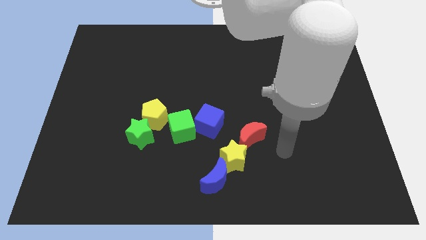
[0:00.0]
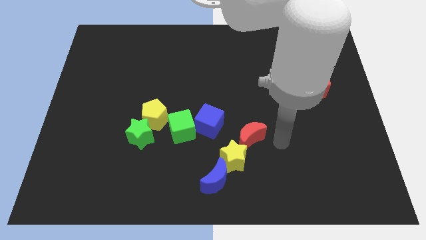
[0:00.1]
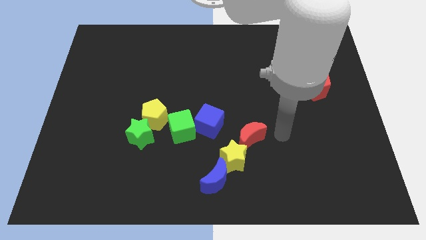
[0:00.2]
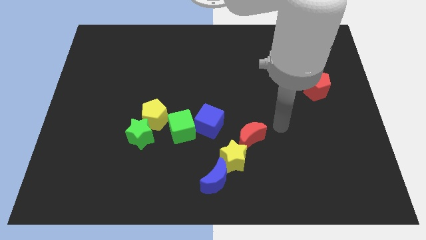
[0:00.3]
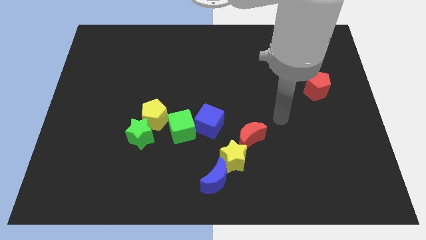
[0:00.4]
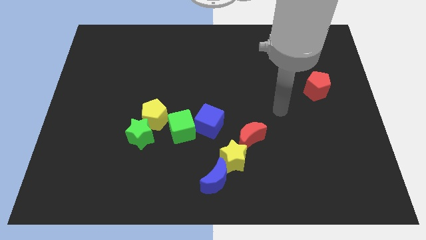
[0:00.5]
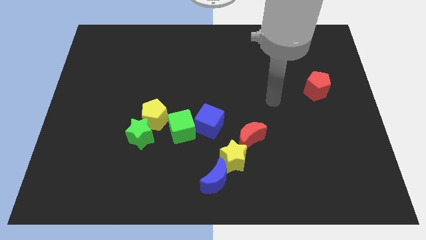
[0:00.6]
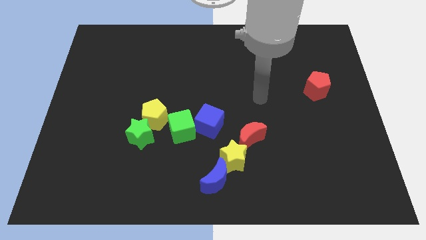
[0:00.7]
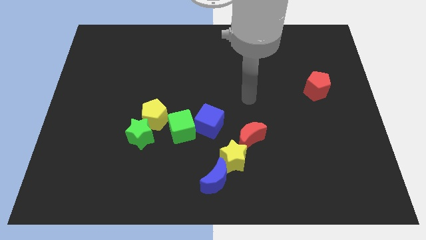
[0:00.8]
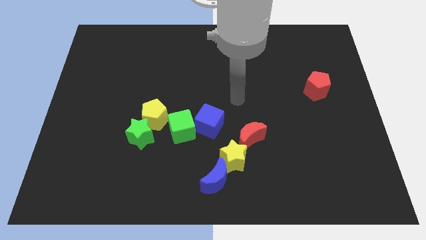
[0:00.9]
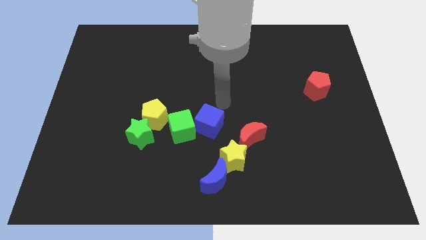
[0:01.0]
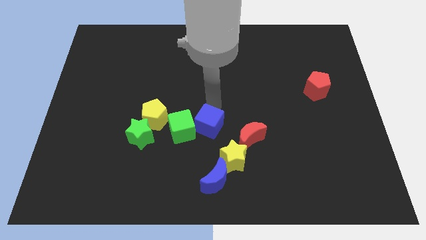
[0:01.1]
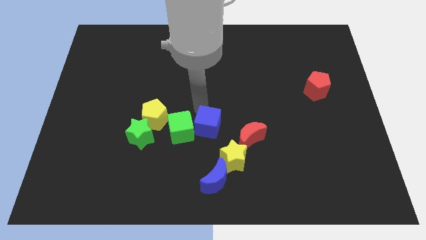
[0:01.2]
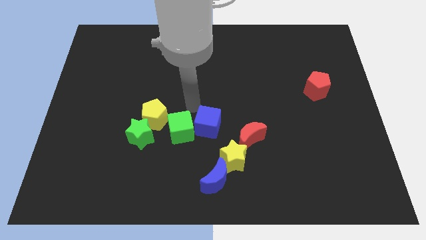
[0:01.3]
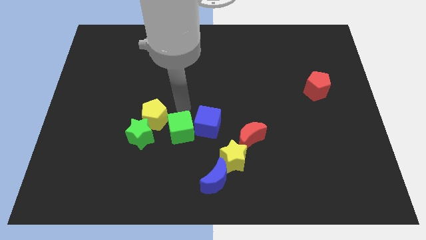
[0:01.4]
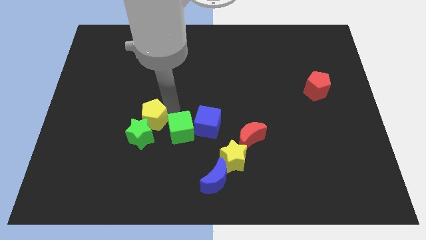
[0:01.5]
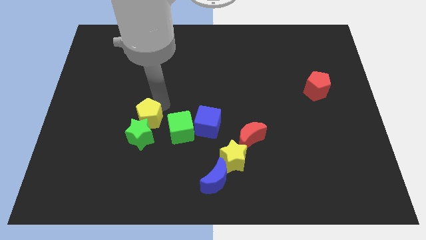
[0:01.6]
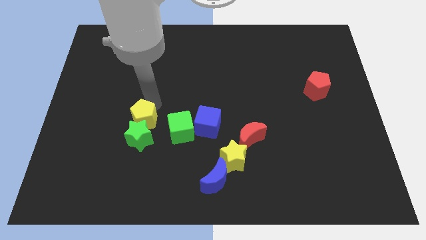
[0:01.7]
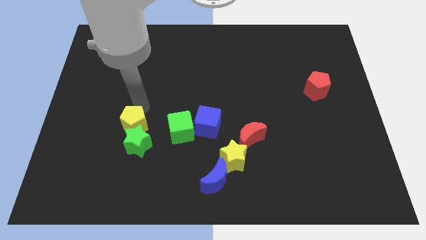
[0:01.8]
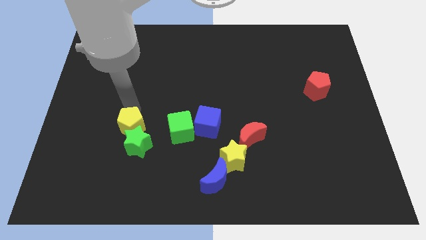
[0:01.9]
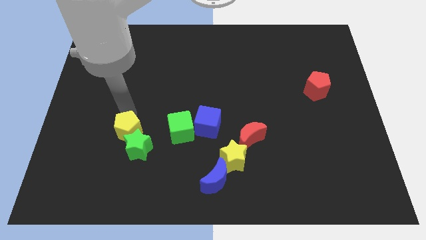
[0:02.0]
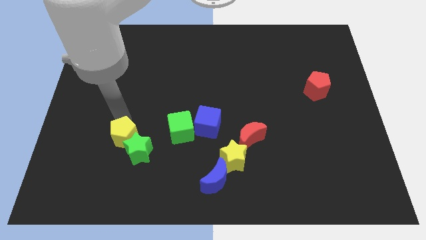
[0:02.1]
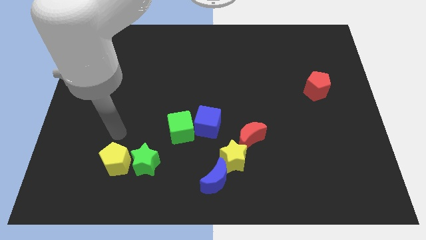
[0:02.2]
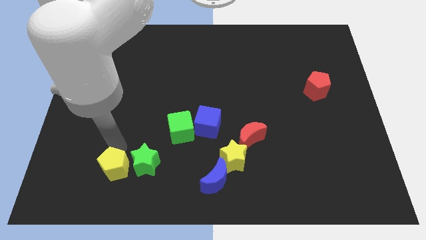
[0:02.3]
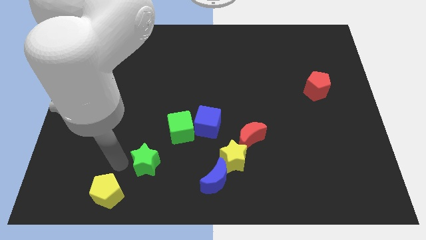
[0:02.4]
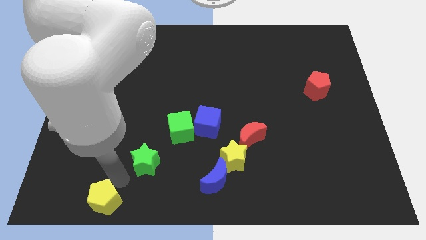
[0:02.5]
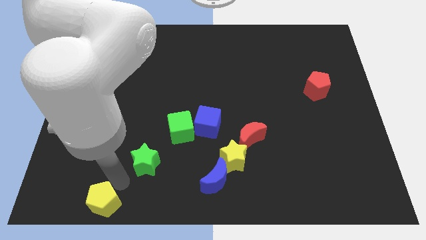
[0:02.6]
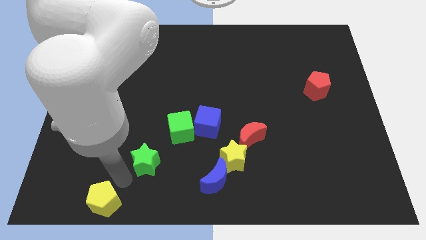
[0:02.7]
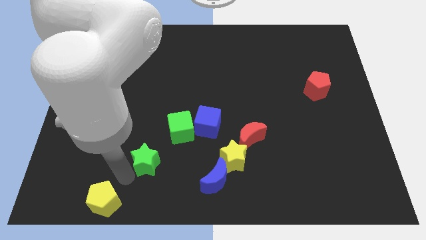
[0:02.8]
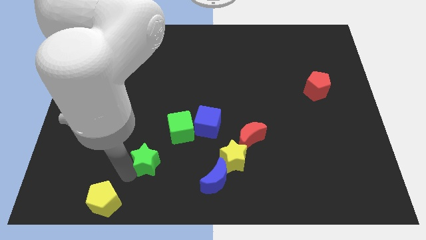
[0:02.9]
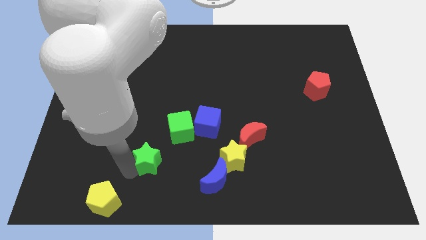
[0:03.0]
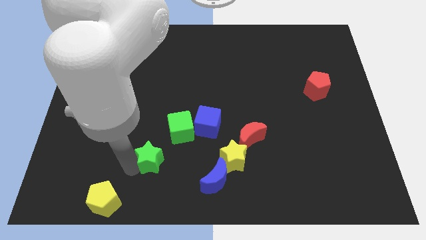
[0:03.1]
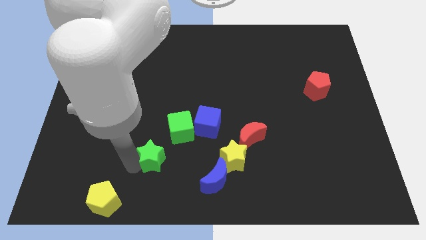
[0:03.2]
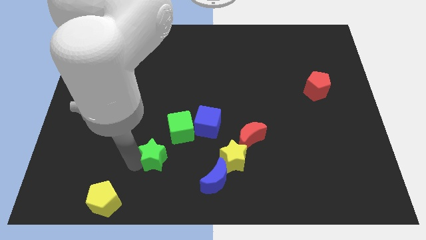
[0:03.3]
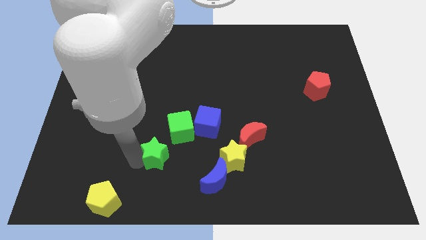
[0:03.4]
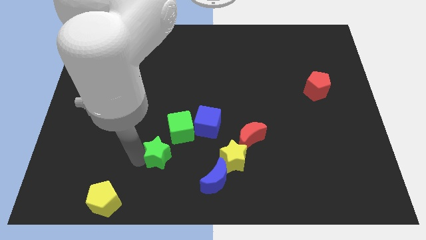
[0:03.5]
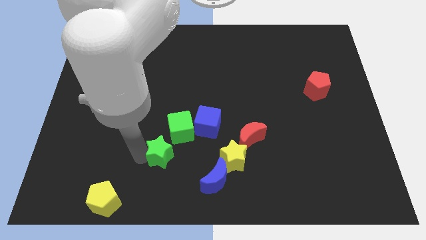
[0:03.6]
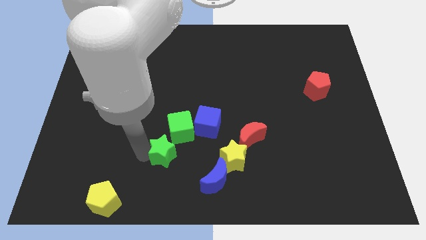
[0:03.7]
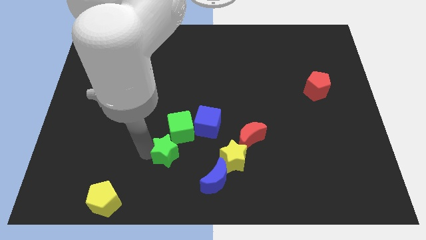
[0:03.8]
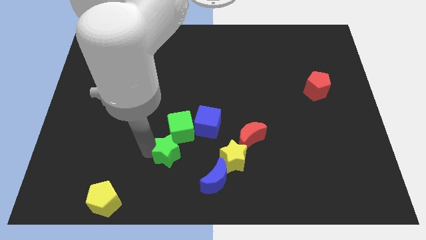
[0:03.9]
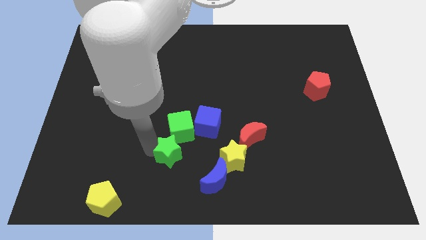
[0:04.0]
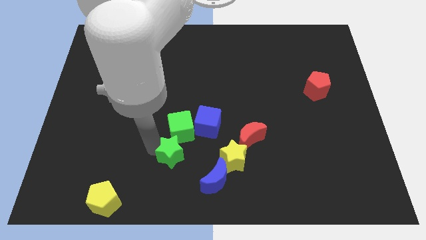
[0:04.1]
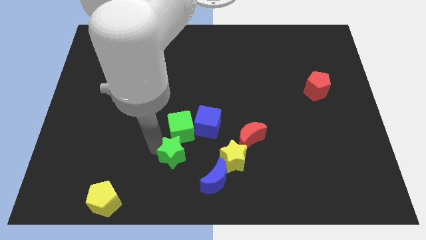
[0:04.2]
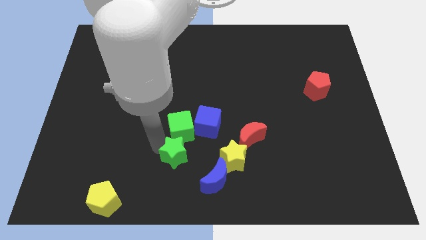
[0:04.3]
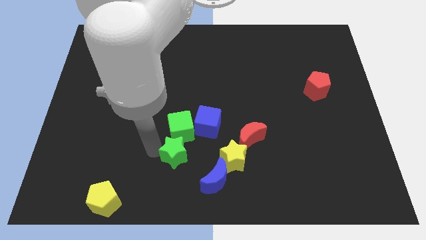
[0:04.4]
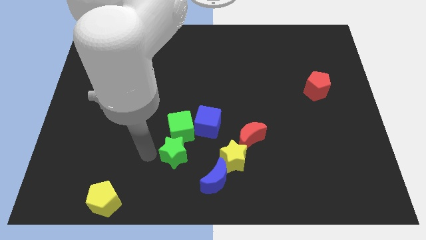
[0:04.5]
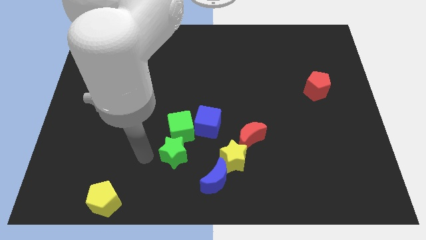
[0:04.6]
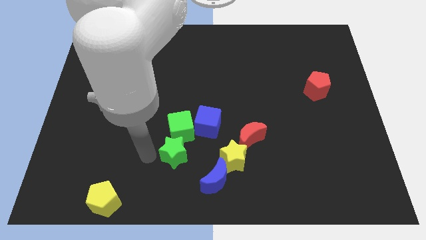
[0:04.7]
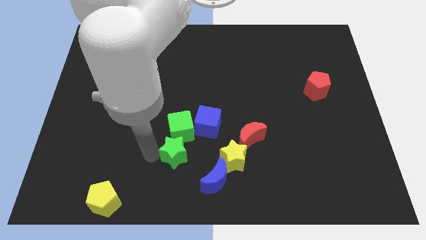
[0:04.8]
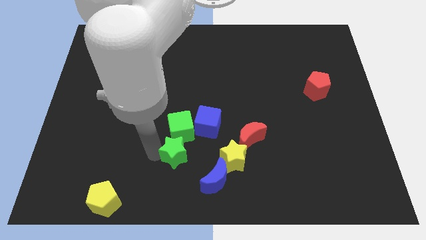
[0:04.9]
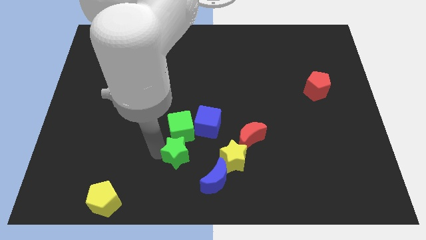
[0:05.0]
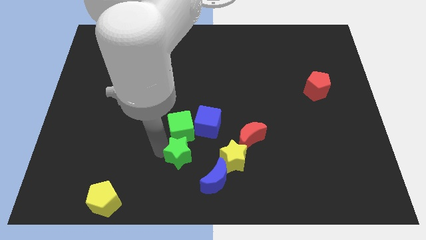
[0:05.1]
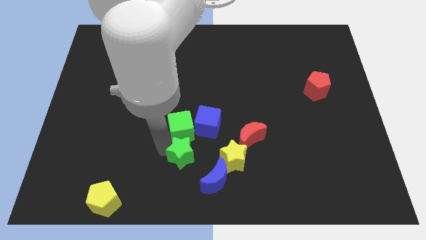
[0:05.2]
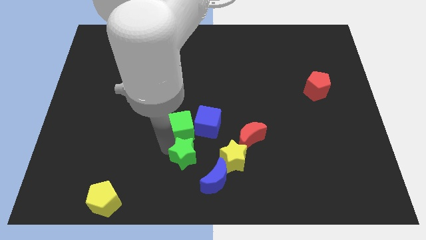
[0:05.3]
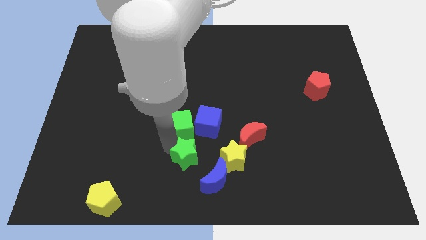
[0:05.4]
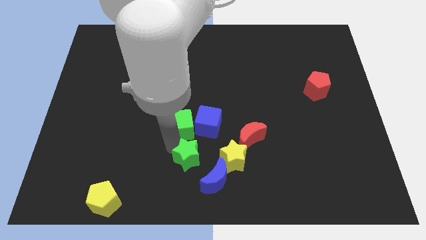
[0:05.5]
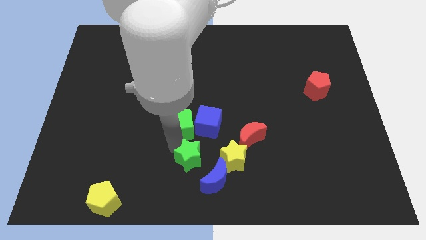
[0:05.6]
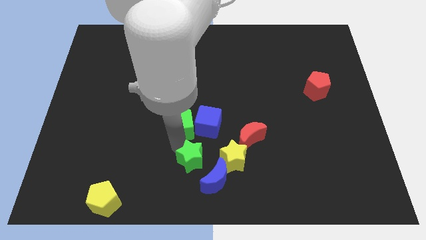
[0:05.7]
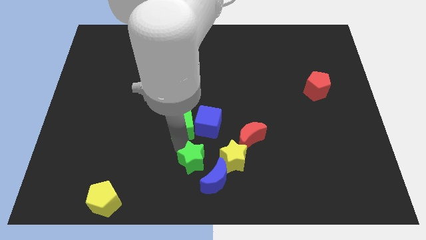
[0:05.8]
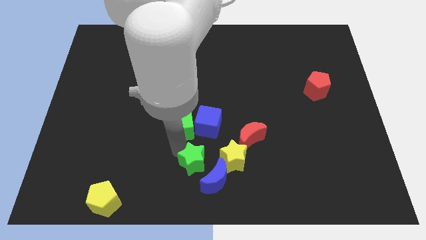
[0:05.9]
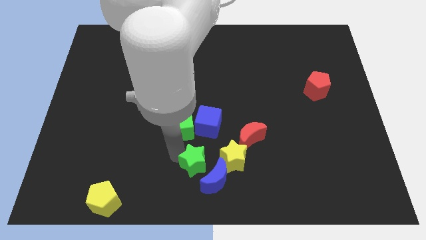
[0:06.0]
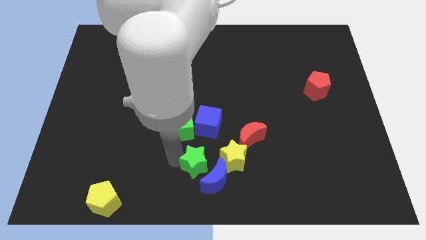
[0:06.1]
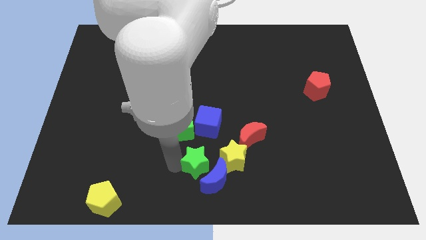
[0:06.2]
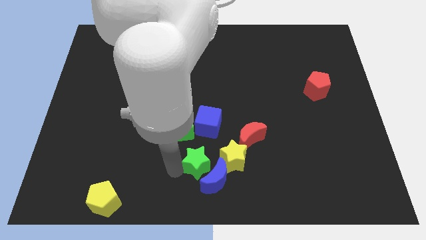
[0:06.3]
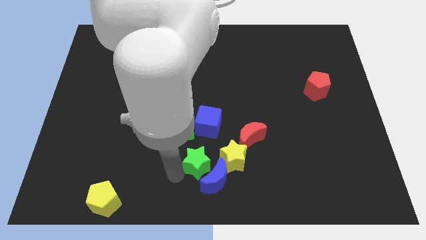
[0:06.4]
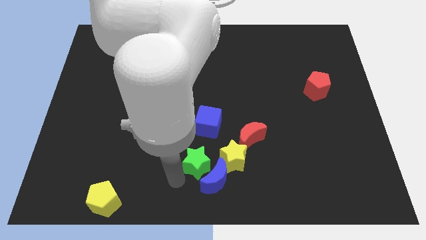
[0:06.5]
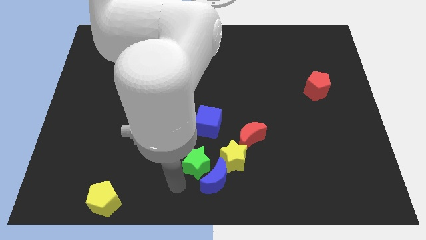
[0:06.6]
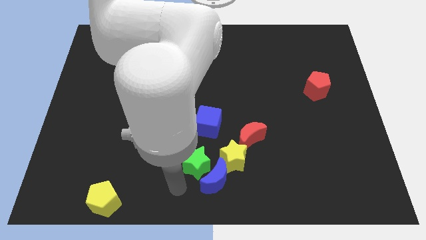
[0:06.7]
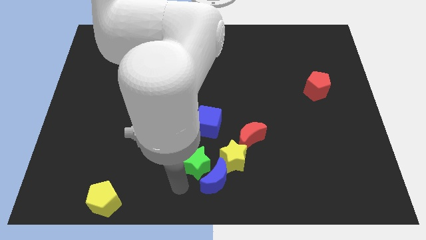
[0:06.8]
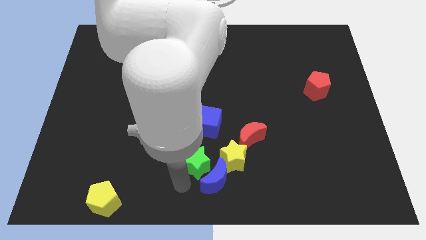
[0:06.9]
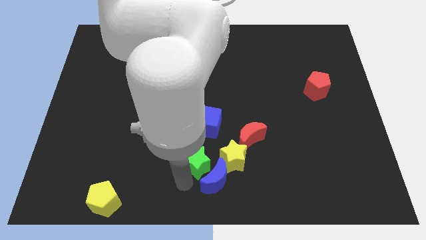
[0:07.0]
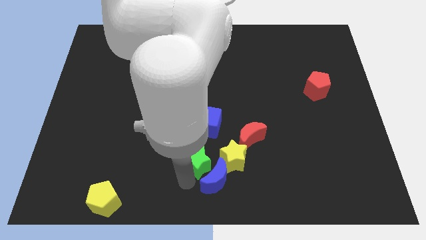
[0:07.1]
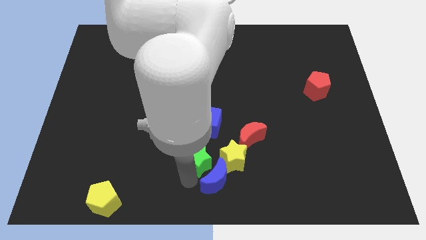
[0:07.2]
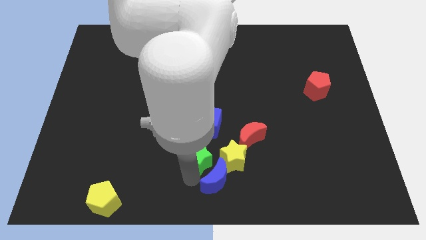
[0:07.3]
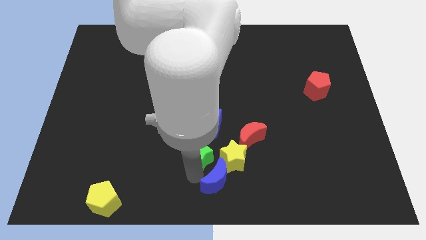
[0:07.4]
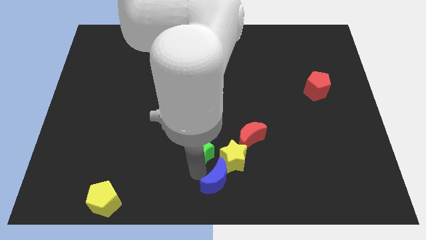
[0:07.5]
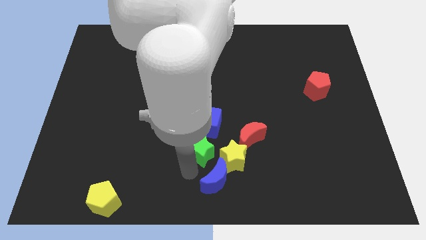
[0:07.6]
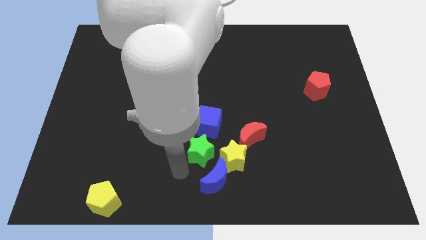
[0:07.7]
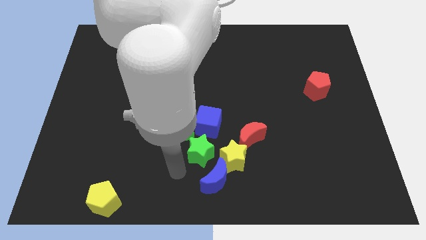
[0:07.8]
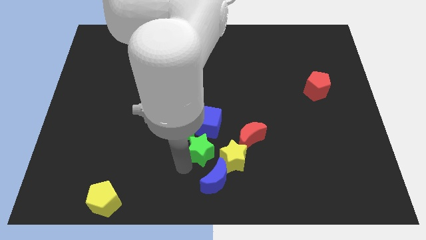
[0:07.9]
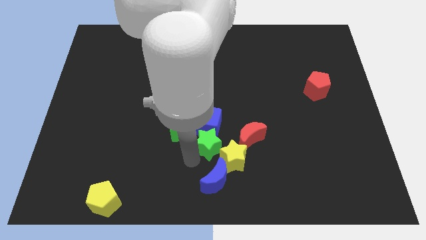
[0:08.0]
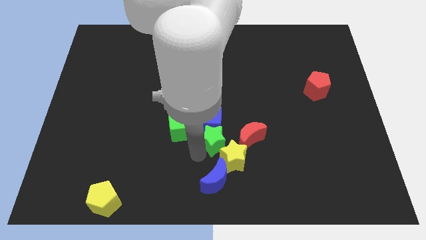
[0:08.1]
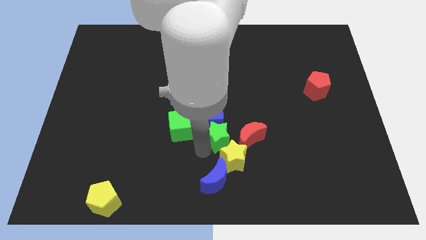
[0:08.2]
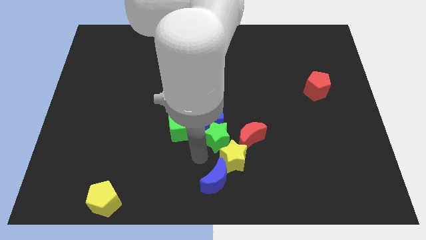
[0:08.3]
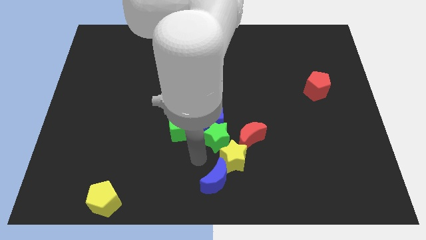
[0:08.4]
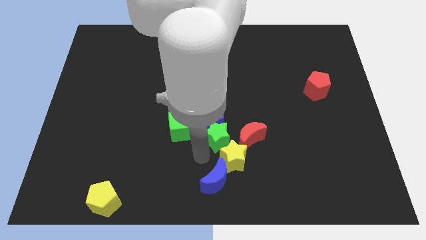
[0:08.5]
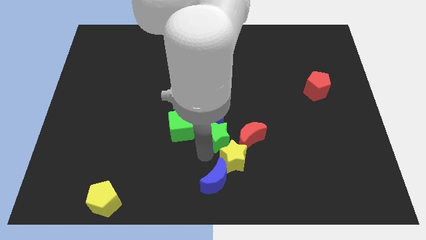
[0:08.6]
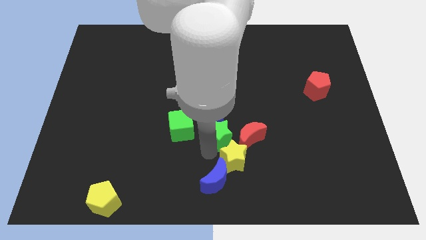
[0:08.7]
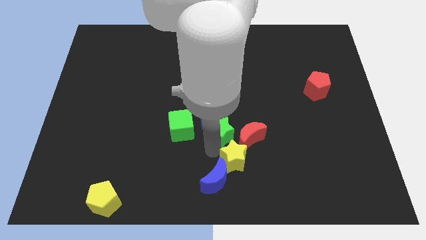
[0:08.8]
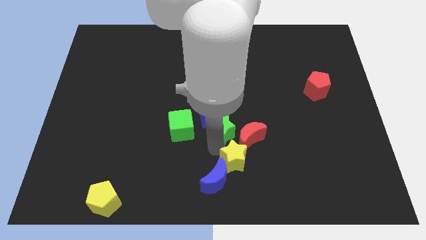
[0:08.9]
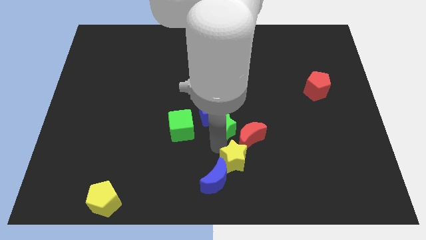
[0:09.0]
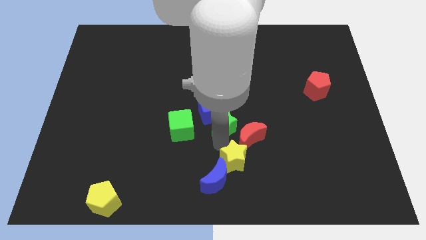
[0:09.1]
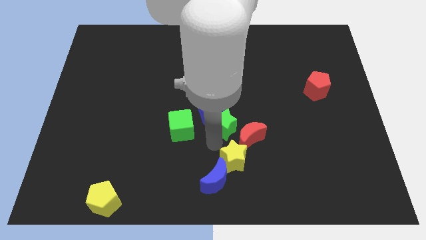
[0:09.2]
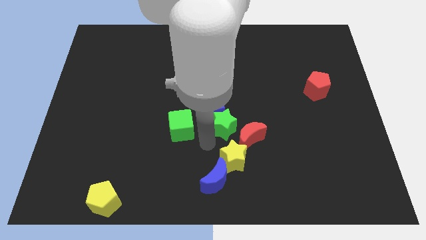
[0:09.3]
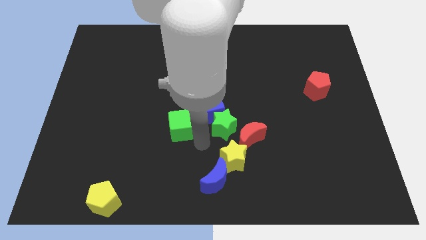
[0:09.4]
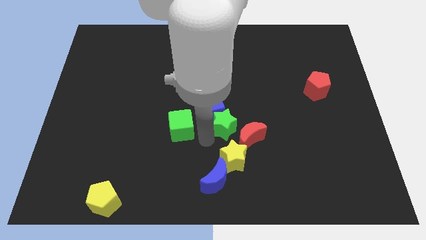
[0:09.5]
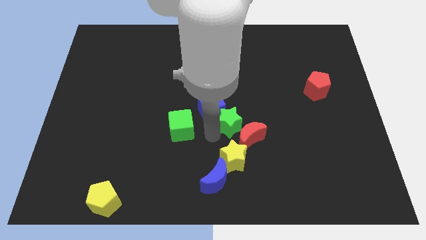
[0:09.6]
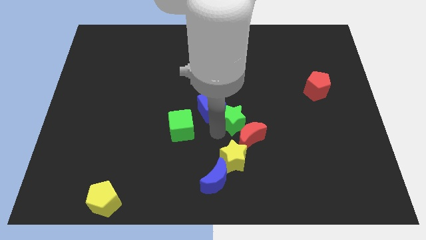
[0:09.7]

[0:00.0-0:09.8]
move the green star right
